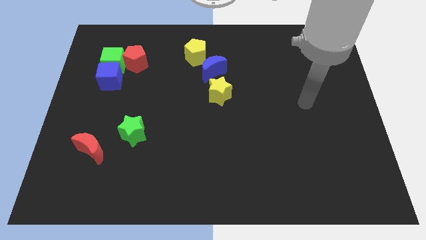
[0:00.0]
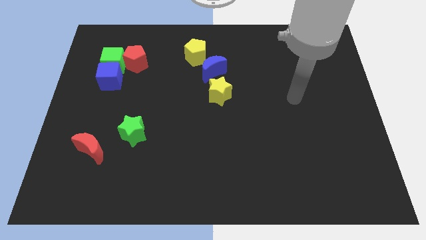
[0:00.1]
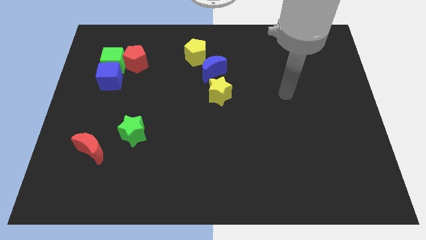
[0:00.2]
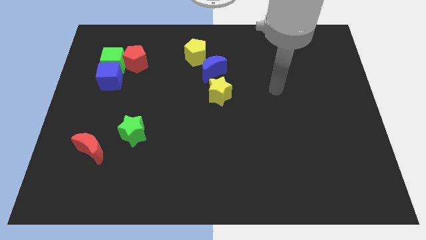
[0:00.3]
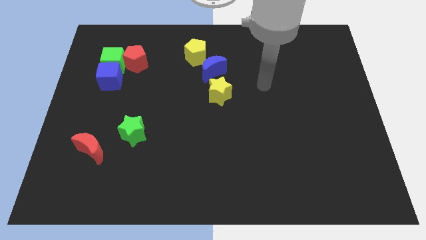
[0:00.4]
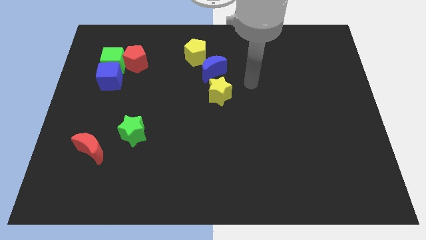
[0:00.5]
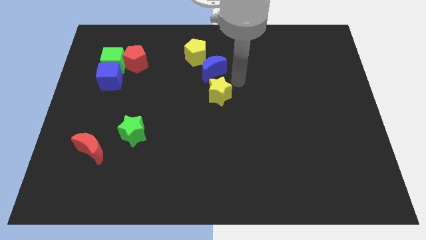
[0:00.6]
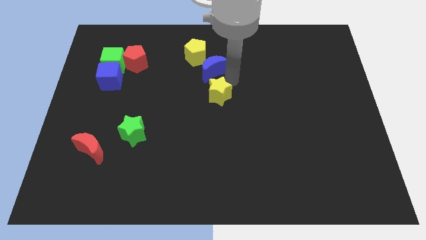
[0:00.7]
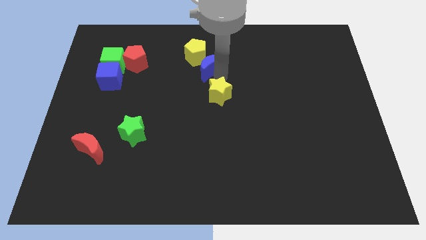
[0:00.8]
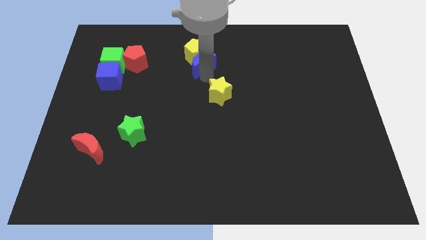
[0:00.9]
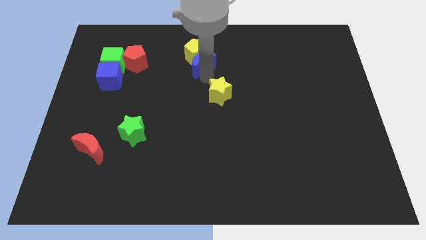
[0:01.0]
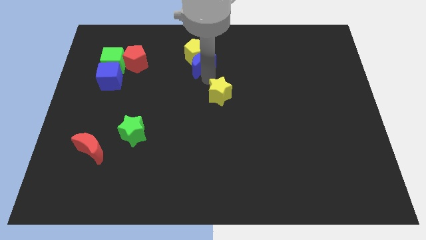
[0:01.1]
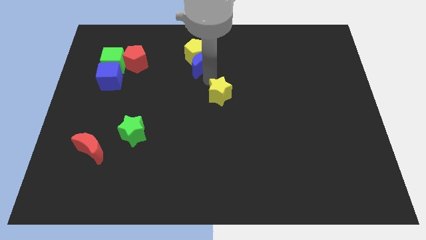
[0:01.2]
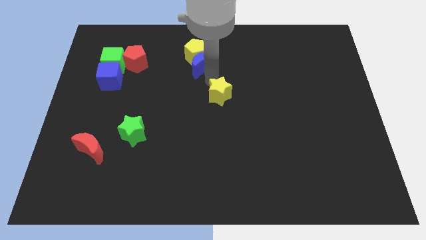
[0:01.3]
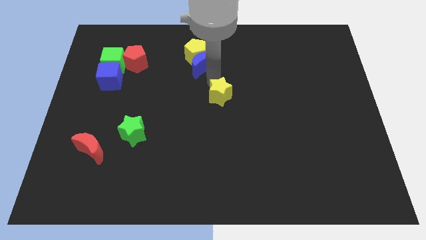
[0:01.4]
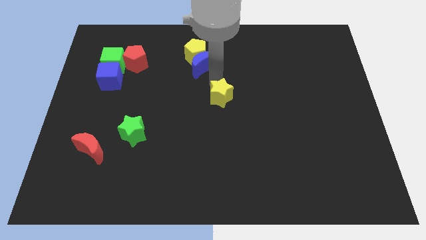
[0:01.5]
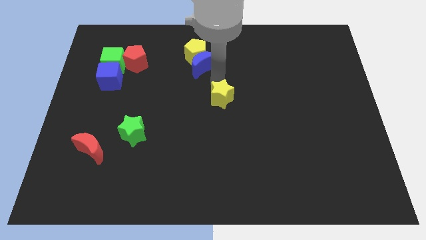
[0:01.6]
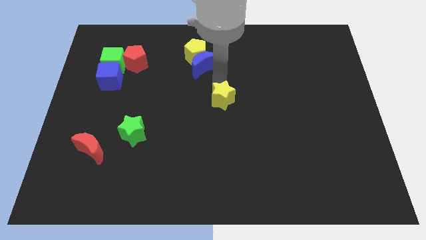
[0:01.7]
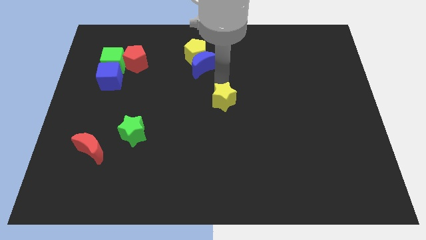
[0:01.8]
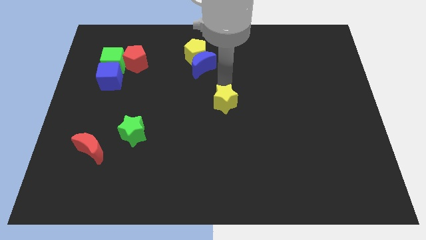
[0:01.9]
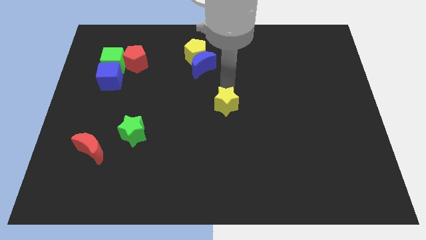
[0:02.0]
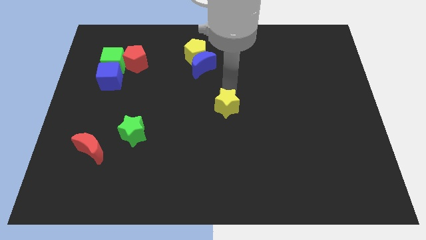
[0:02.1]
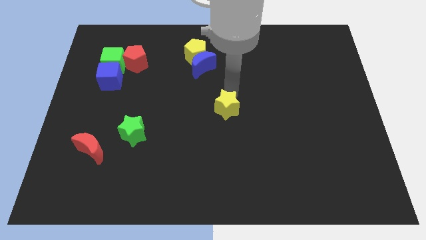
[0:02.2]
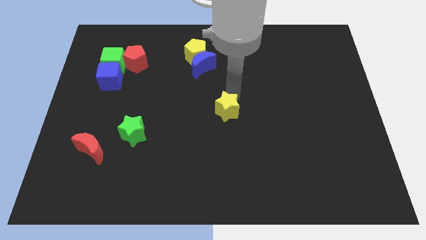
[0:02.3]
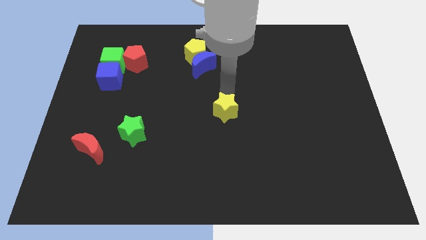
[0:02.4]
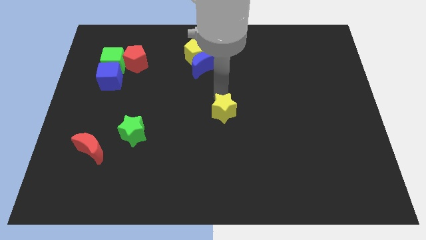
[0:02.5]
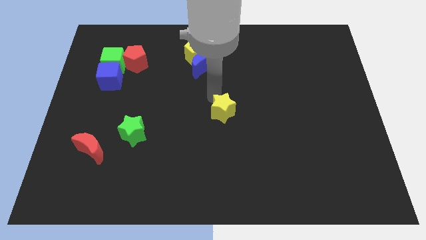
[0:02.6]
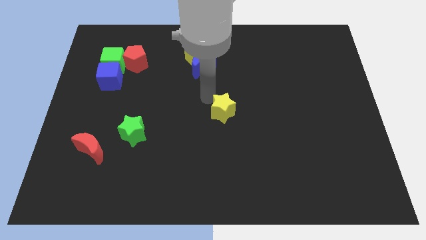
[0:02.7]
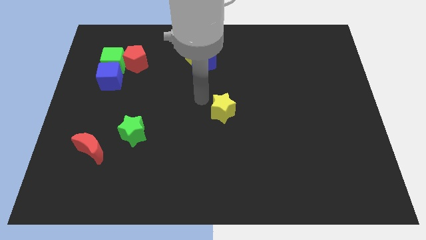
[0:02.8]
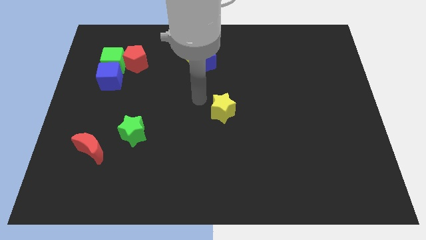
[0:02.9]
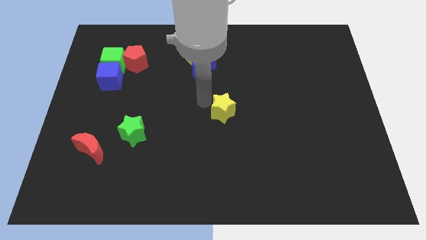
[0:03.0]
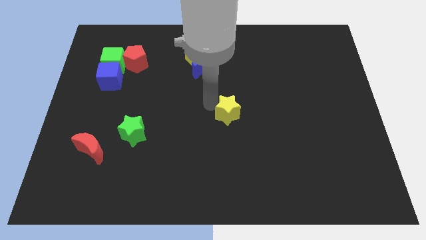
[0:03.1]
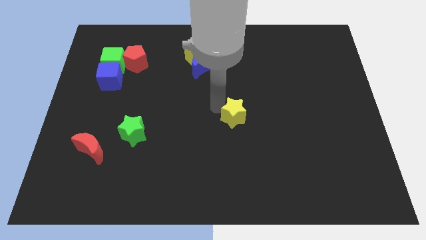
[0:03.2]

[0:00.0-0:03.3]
slide the yellow star a bit downwards and to the right diagonally

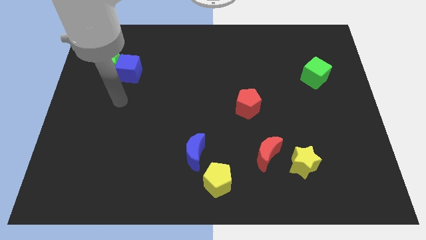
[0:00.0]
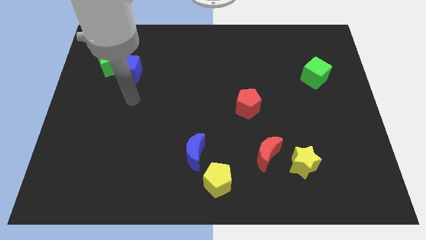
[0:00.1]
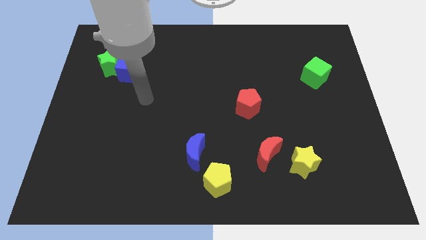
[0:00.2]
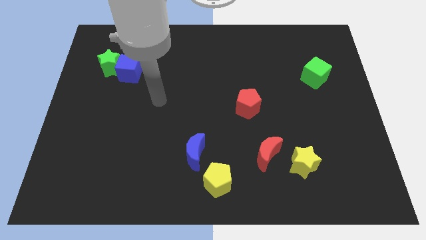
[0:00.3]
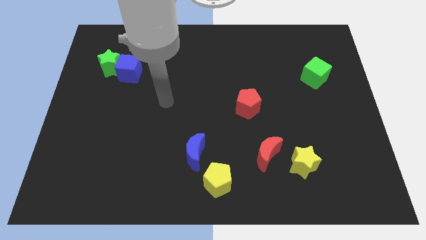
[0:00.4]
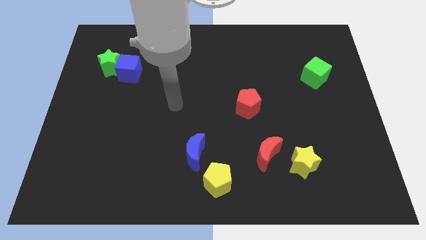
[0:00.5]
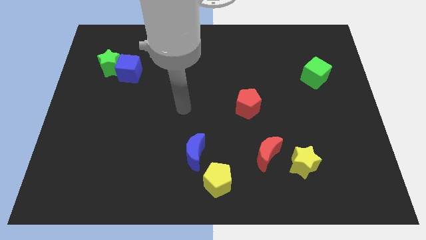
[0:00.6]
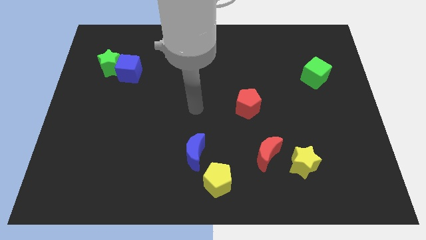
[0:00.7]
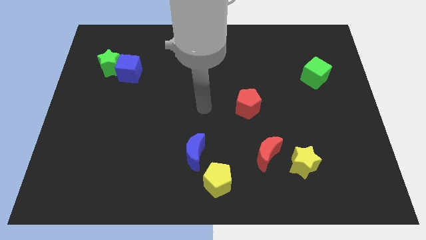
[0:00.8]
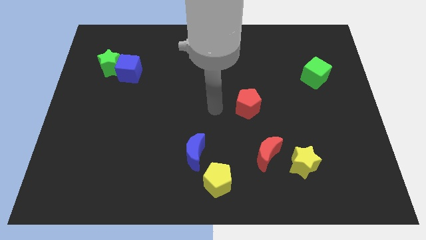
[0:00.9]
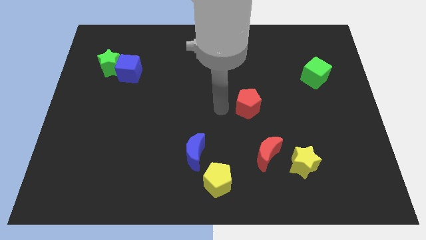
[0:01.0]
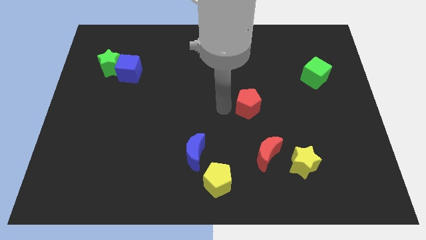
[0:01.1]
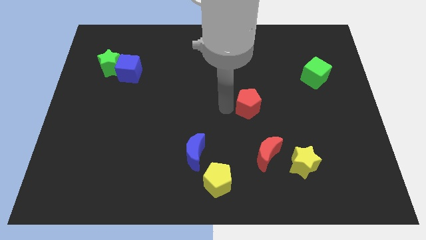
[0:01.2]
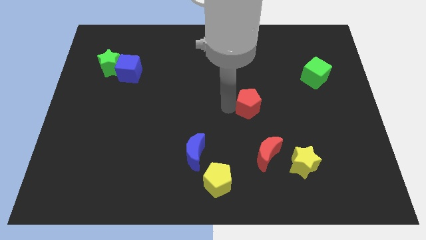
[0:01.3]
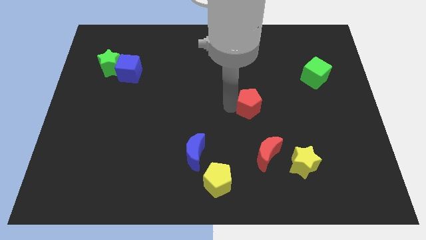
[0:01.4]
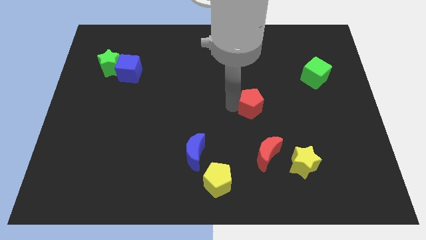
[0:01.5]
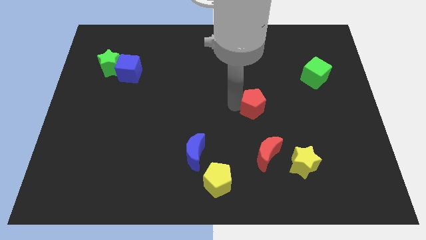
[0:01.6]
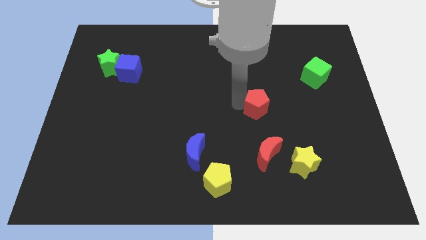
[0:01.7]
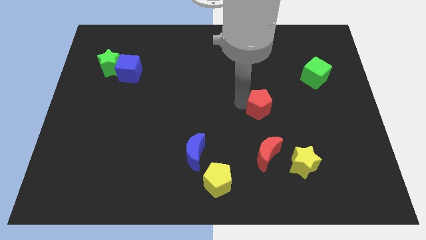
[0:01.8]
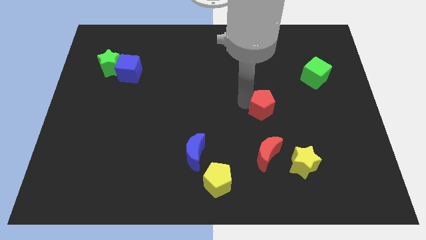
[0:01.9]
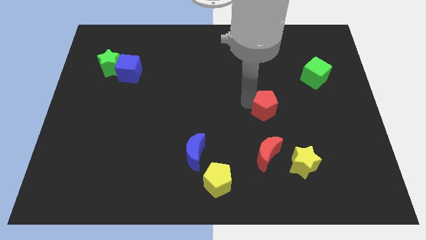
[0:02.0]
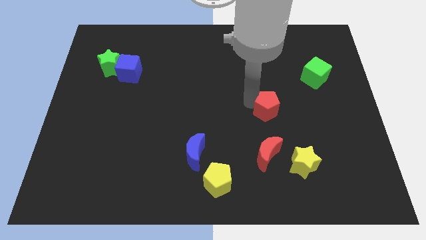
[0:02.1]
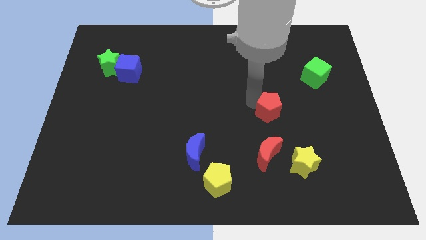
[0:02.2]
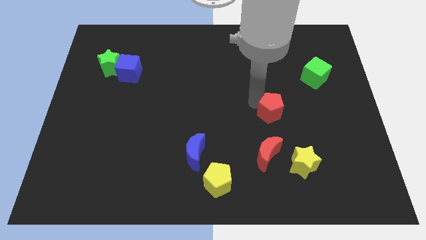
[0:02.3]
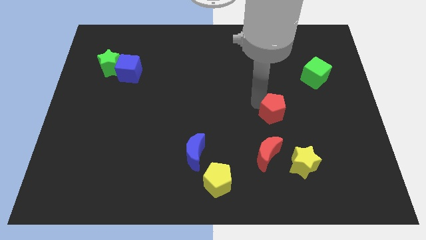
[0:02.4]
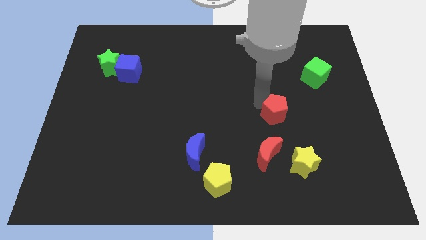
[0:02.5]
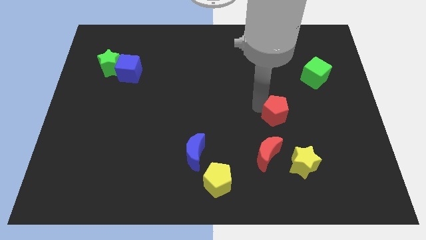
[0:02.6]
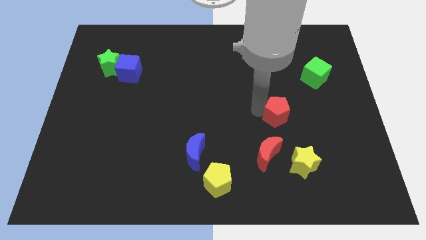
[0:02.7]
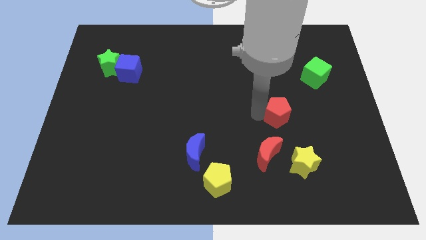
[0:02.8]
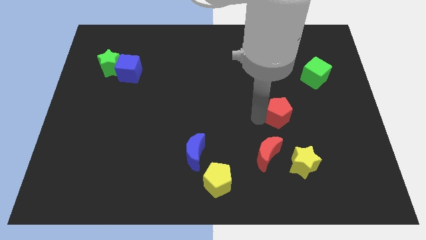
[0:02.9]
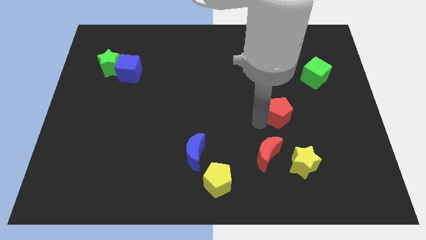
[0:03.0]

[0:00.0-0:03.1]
slightly push the red pentagon to the right

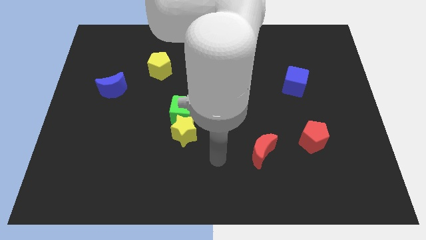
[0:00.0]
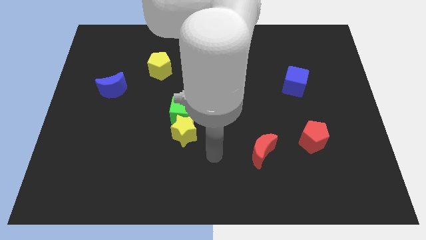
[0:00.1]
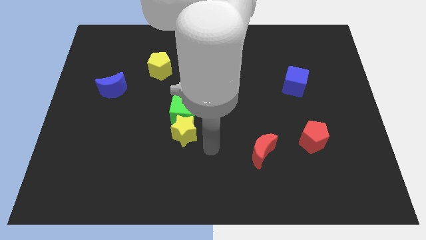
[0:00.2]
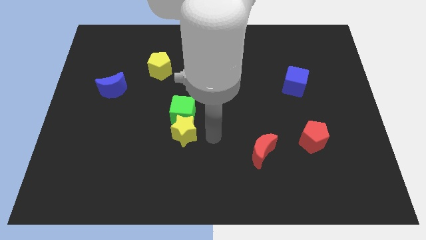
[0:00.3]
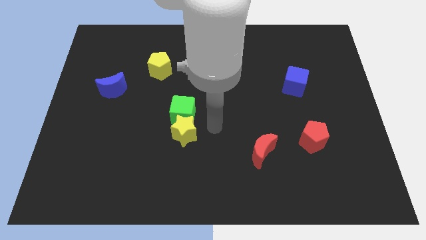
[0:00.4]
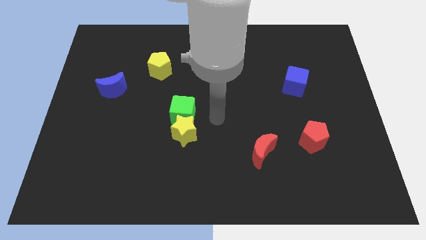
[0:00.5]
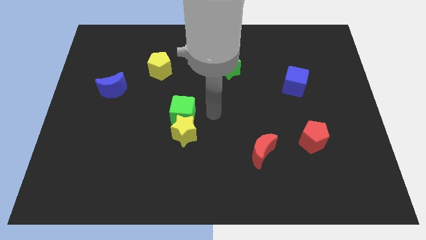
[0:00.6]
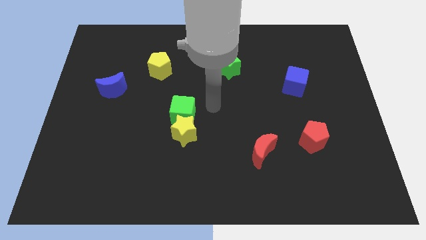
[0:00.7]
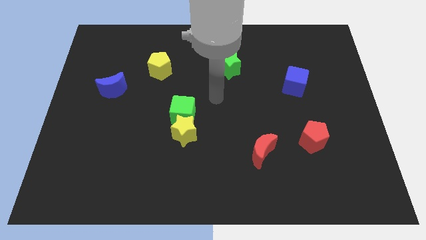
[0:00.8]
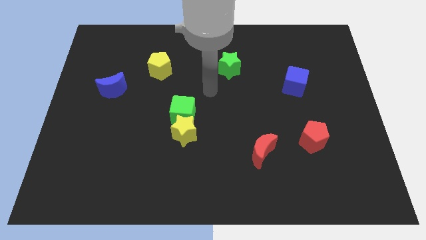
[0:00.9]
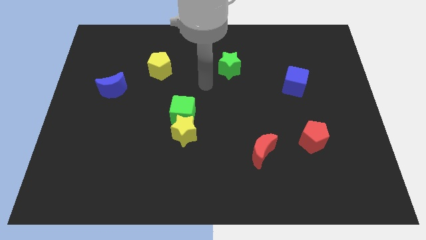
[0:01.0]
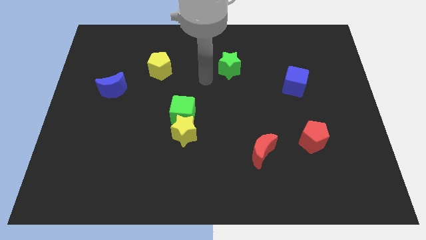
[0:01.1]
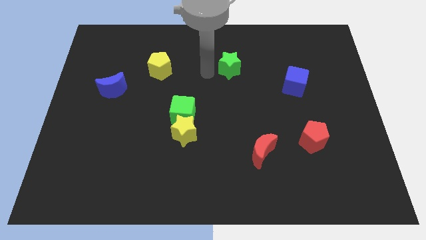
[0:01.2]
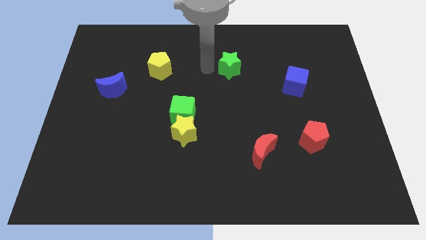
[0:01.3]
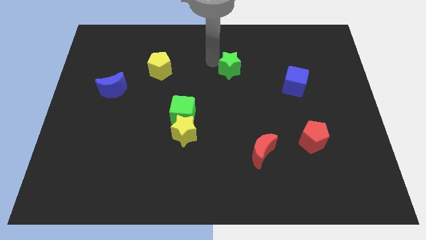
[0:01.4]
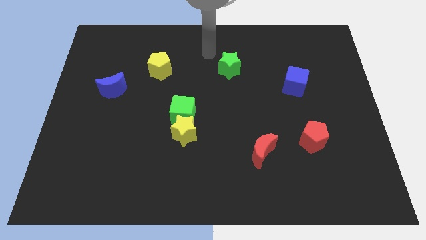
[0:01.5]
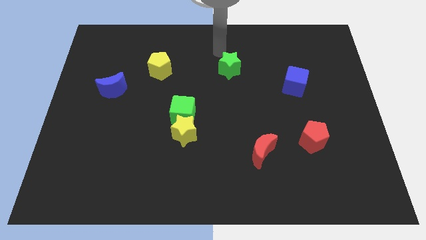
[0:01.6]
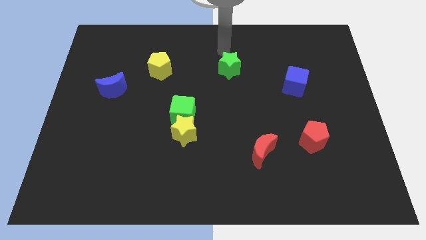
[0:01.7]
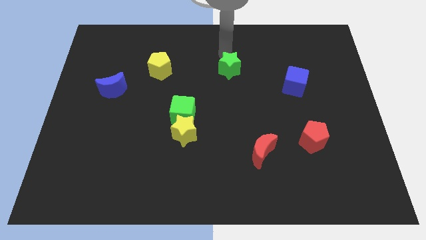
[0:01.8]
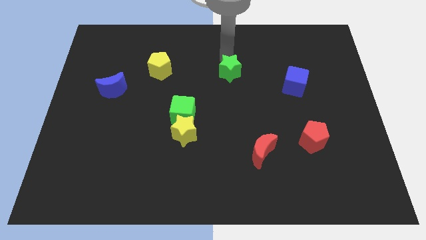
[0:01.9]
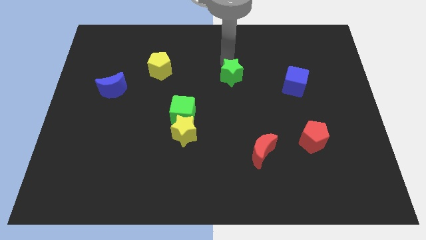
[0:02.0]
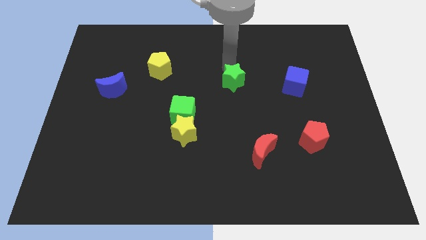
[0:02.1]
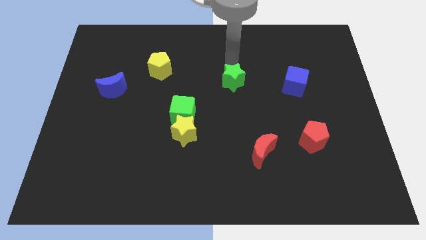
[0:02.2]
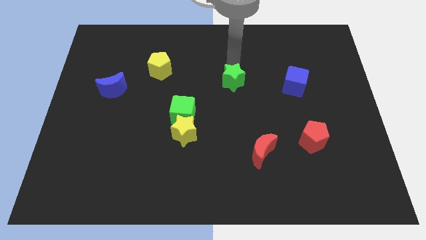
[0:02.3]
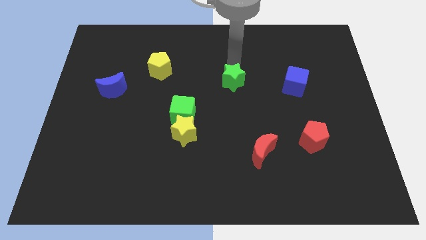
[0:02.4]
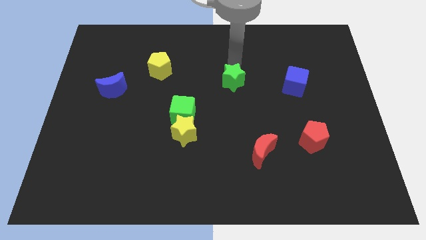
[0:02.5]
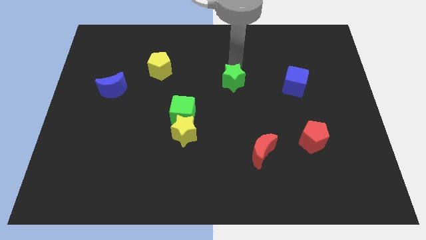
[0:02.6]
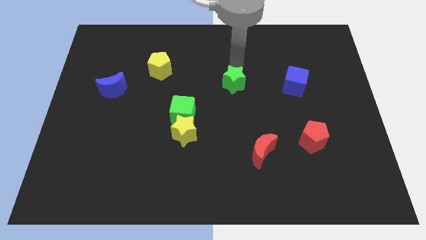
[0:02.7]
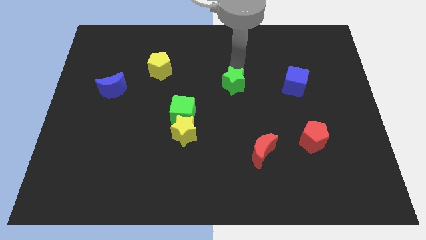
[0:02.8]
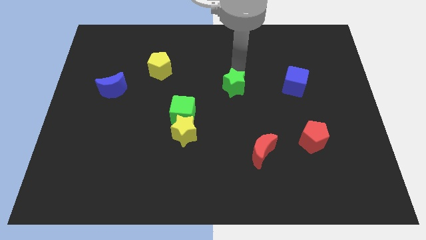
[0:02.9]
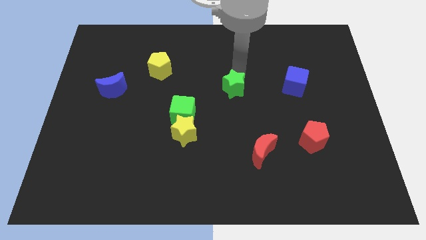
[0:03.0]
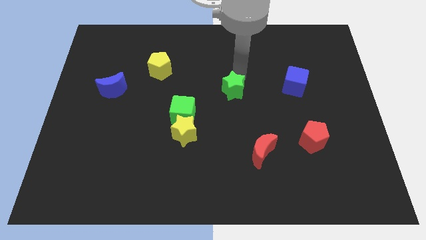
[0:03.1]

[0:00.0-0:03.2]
slide the green star a little down
